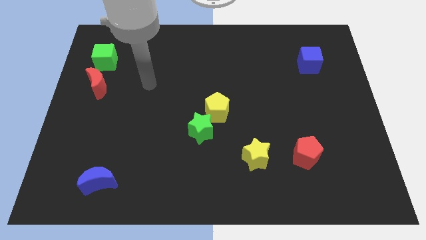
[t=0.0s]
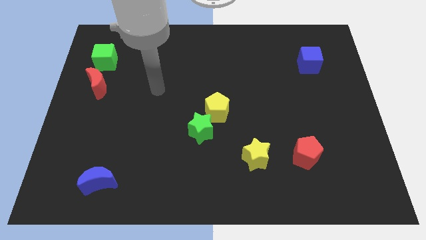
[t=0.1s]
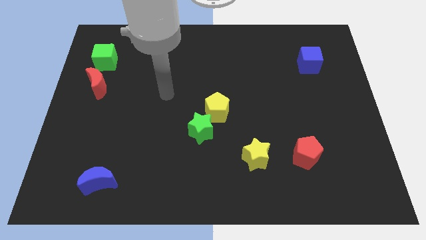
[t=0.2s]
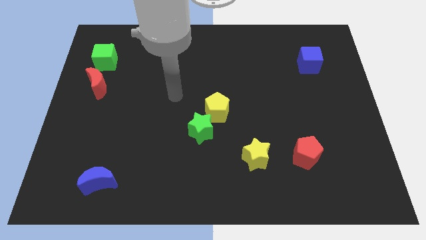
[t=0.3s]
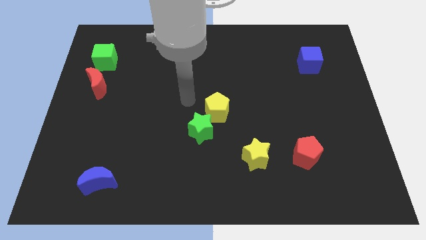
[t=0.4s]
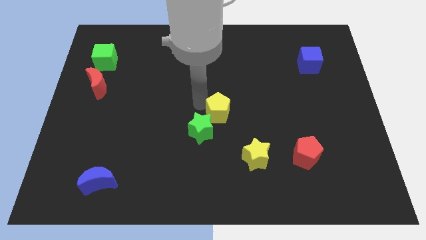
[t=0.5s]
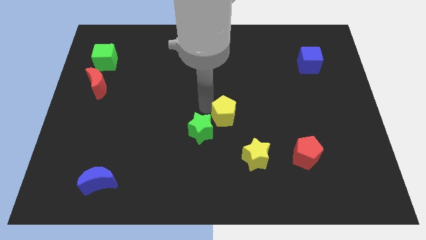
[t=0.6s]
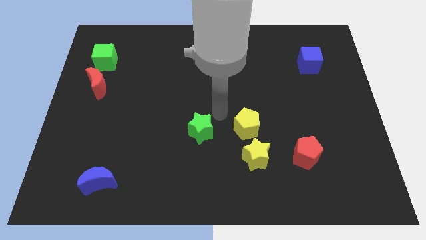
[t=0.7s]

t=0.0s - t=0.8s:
move the green star away from the yellow pentagon

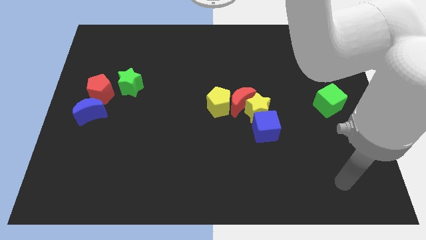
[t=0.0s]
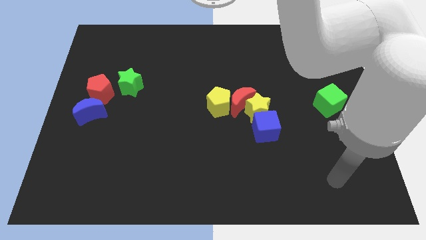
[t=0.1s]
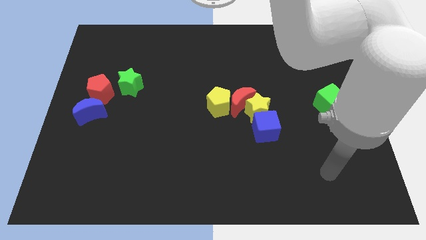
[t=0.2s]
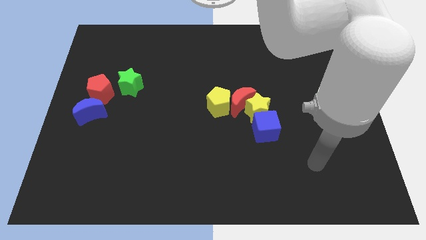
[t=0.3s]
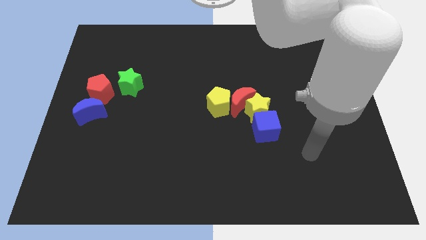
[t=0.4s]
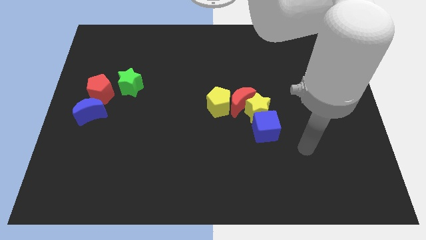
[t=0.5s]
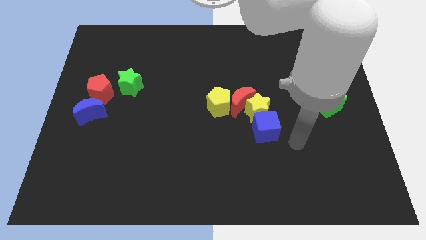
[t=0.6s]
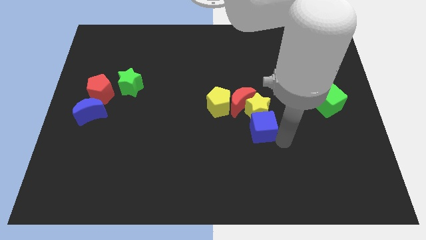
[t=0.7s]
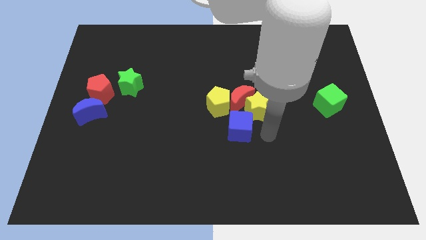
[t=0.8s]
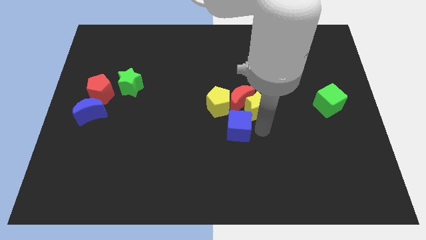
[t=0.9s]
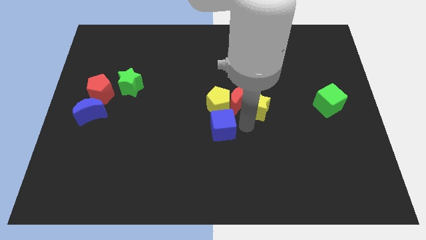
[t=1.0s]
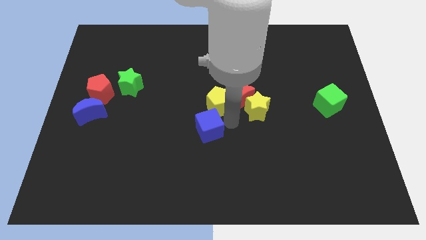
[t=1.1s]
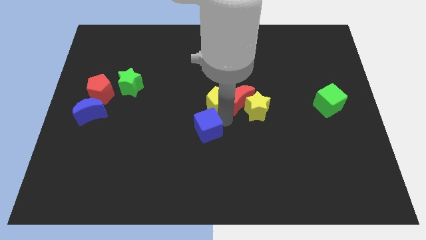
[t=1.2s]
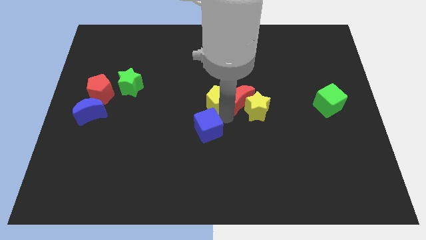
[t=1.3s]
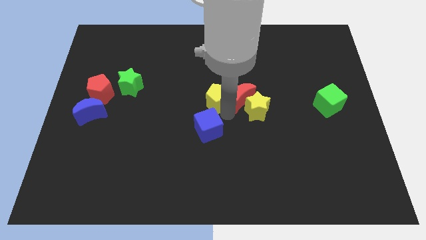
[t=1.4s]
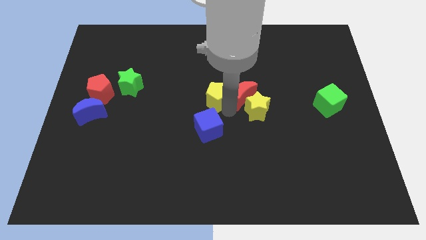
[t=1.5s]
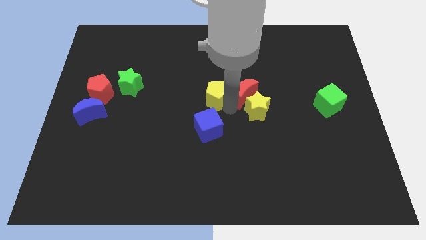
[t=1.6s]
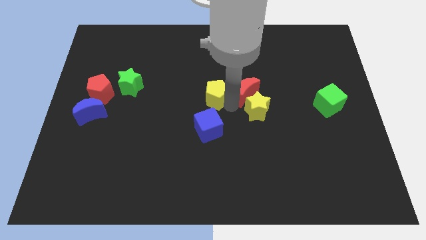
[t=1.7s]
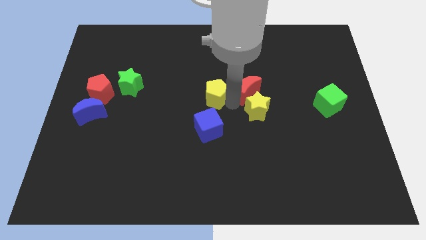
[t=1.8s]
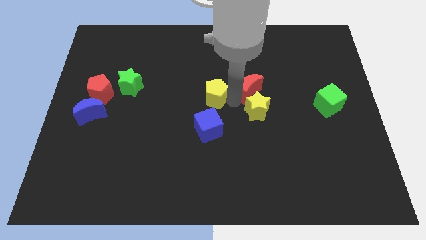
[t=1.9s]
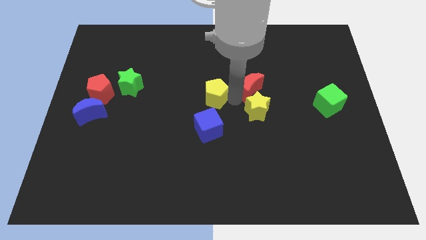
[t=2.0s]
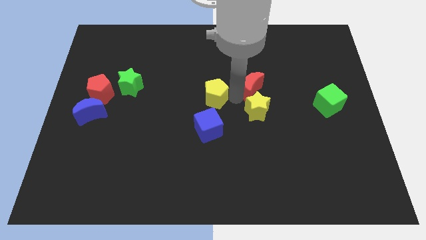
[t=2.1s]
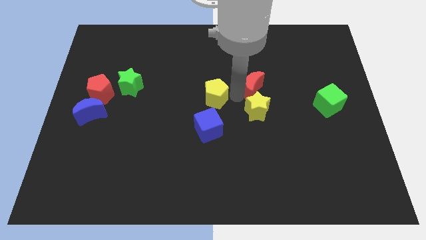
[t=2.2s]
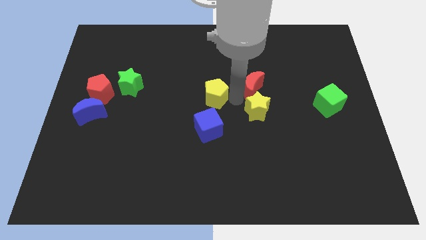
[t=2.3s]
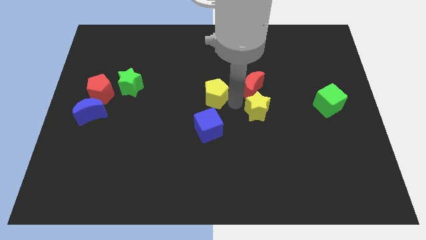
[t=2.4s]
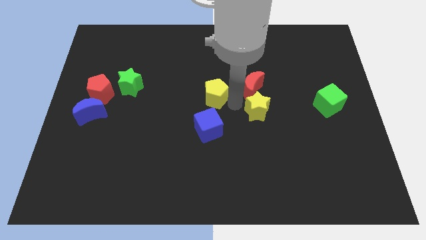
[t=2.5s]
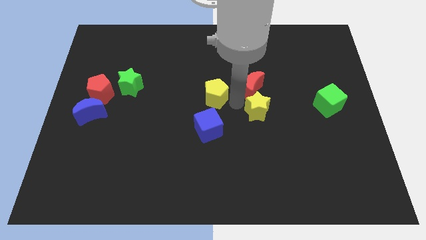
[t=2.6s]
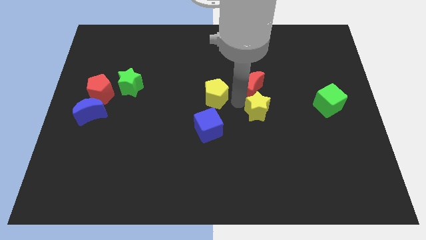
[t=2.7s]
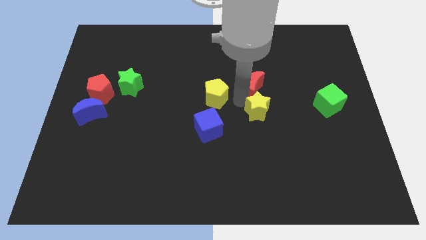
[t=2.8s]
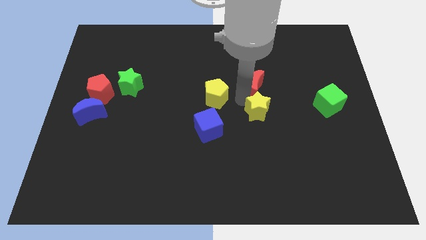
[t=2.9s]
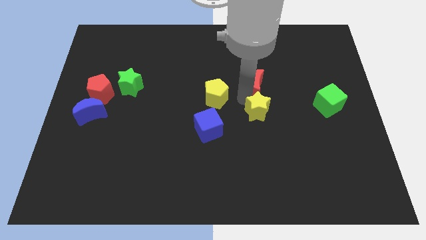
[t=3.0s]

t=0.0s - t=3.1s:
pull the red moon apart from the group of blocks

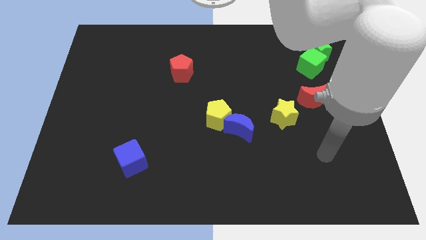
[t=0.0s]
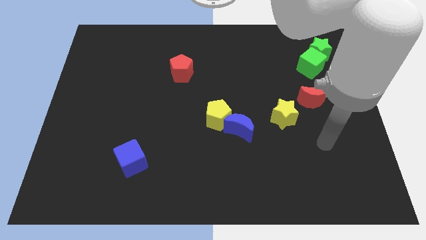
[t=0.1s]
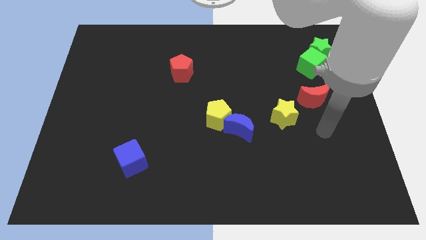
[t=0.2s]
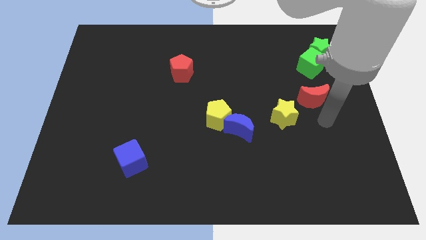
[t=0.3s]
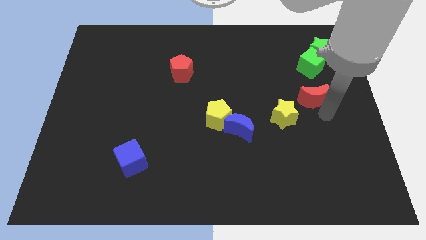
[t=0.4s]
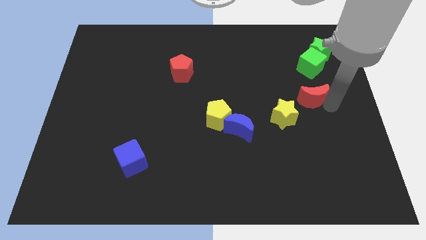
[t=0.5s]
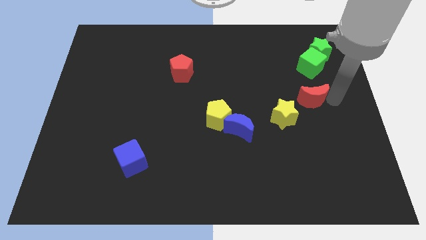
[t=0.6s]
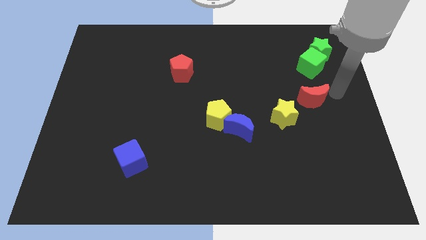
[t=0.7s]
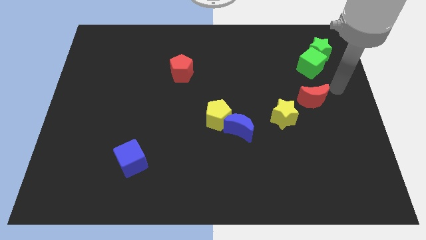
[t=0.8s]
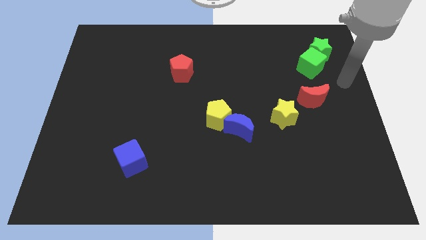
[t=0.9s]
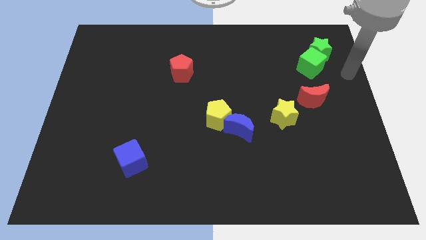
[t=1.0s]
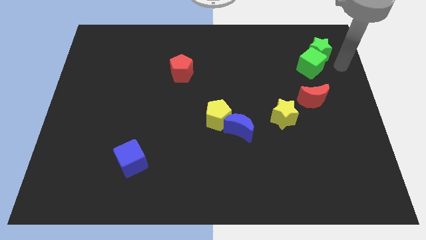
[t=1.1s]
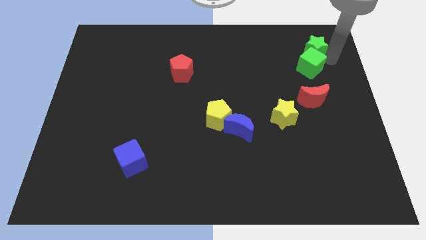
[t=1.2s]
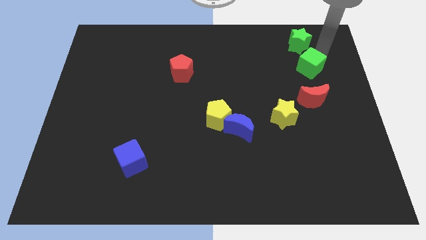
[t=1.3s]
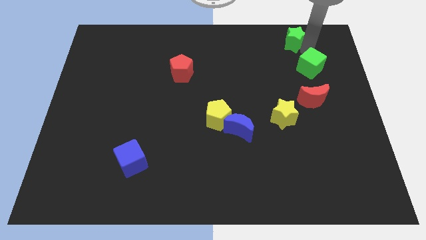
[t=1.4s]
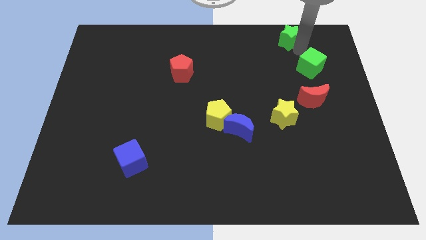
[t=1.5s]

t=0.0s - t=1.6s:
pull the green cube apart from the green star

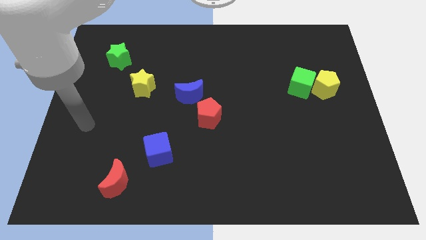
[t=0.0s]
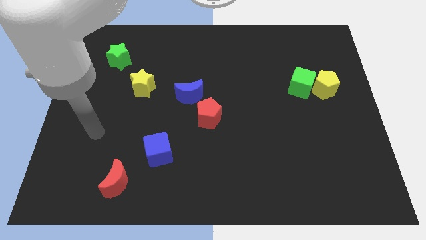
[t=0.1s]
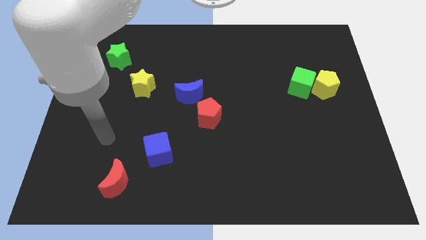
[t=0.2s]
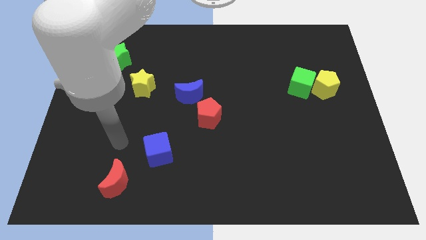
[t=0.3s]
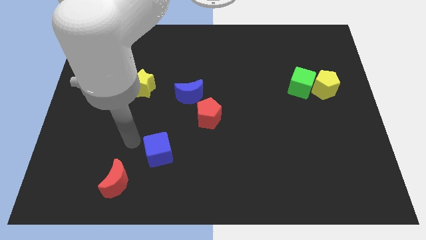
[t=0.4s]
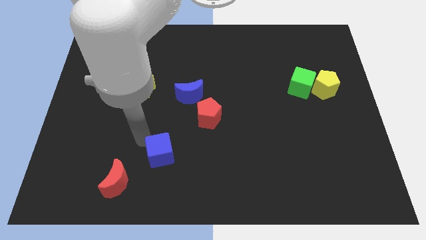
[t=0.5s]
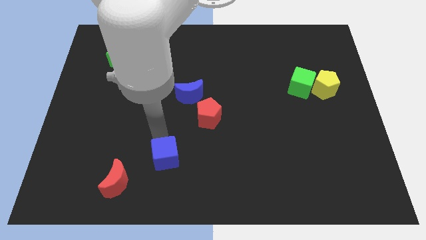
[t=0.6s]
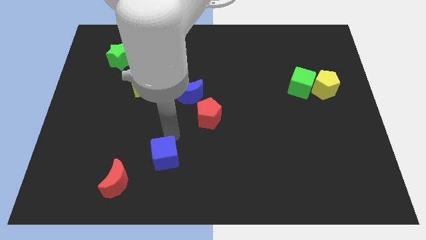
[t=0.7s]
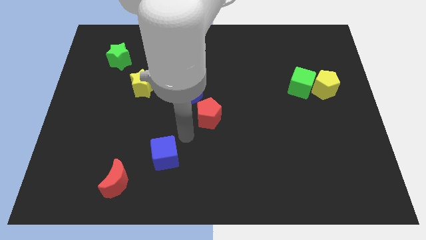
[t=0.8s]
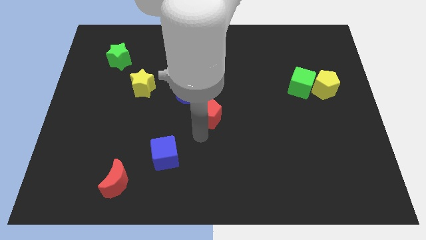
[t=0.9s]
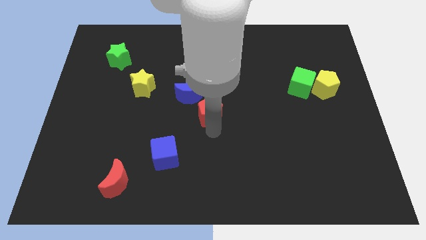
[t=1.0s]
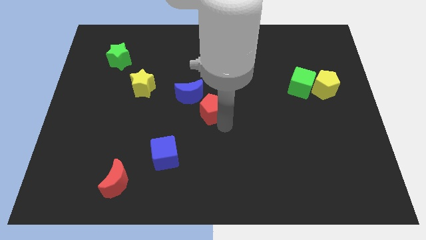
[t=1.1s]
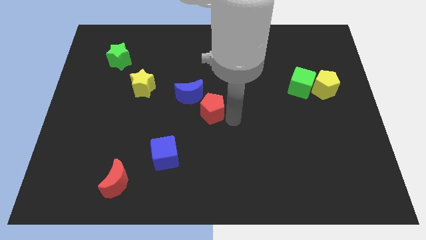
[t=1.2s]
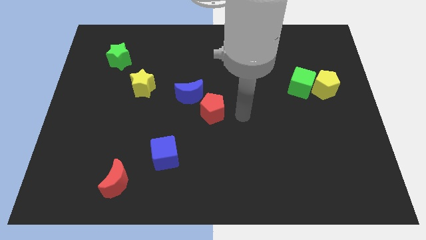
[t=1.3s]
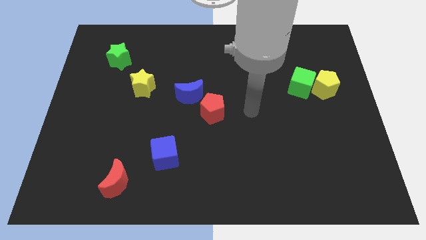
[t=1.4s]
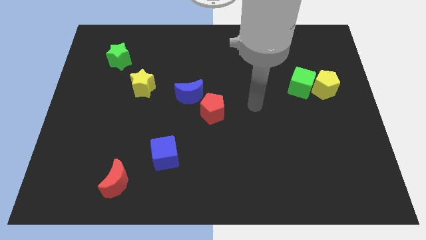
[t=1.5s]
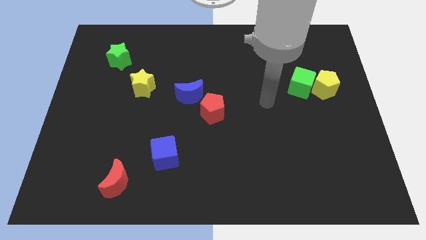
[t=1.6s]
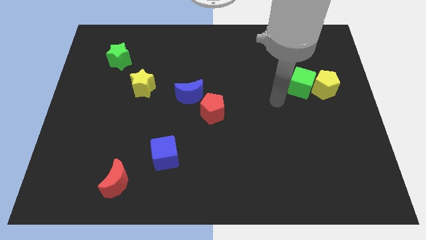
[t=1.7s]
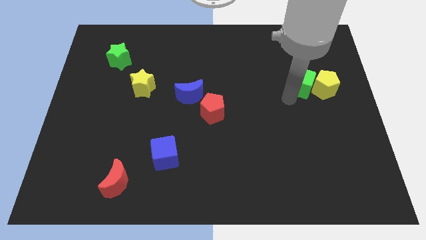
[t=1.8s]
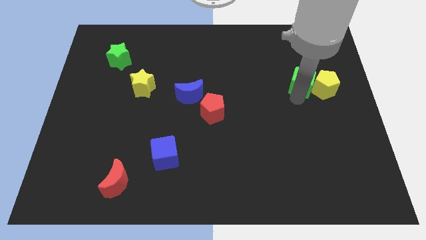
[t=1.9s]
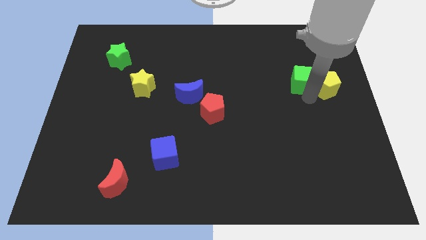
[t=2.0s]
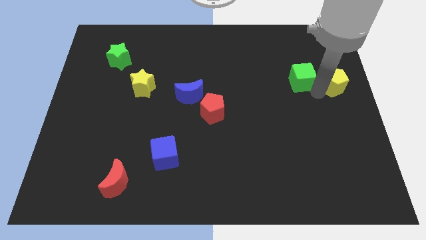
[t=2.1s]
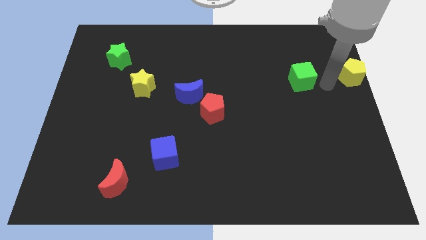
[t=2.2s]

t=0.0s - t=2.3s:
separate the green cube from the yellow pentagon

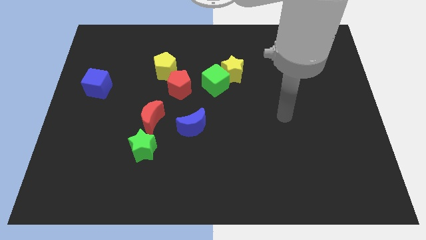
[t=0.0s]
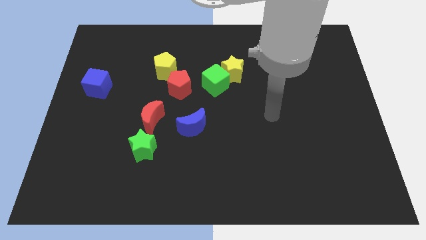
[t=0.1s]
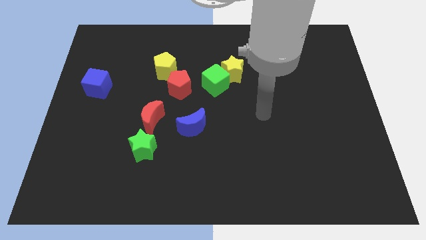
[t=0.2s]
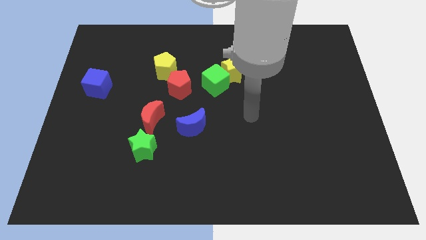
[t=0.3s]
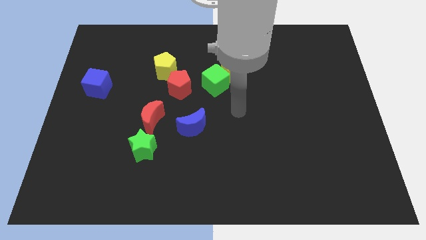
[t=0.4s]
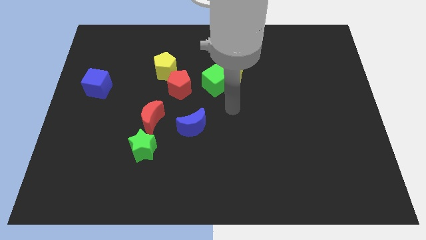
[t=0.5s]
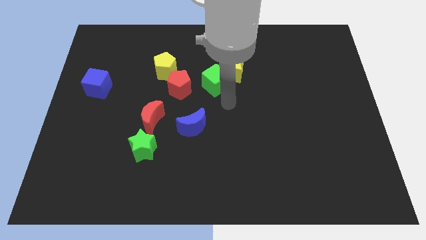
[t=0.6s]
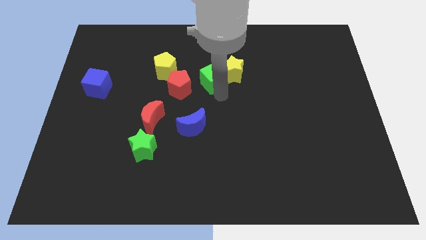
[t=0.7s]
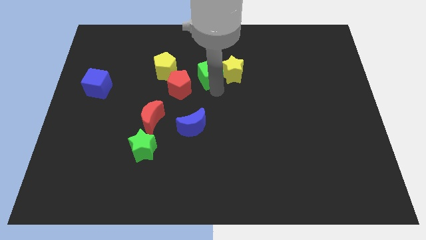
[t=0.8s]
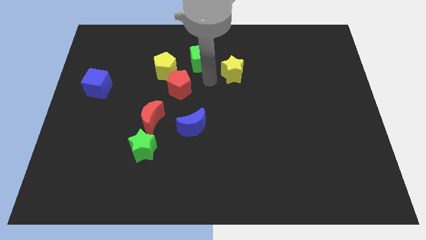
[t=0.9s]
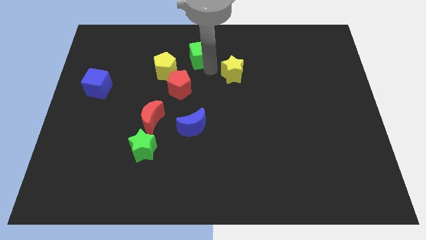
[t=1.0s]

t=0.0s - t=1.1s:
pull the yellow star apart from the green cube

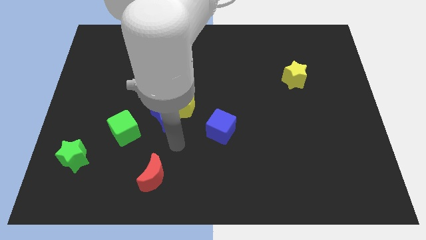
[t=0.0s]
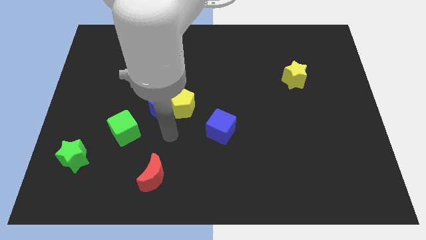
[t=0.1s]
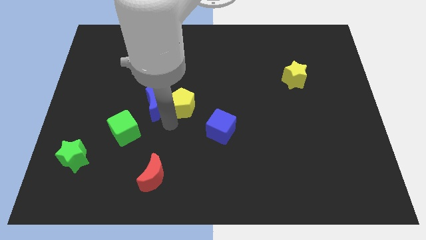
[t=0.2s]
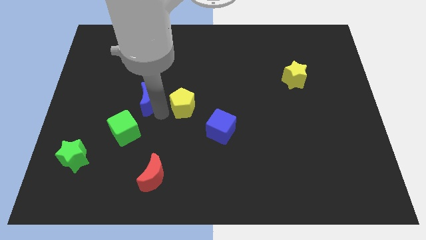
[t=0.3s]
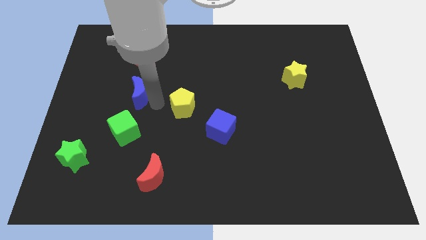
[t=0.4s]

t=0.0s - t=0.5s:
separate the yellow pentagon from the blue moon

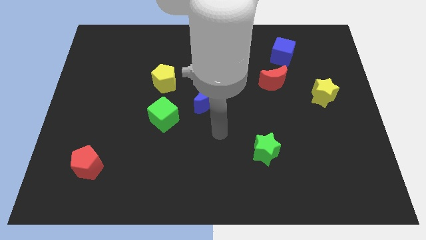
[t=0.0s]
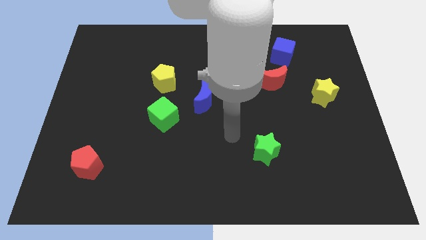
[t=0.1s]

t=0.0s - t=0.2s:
move the red moon away from the blue cube
